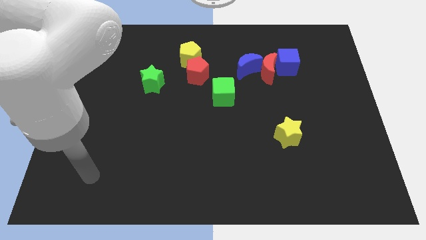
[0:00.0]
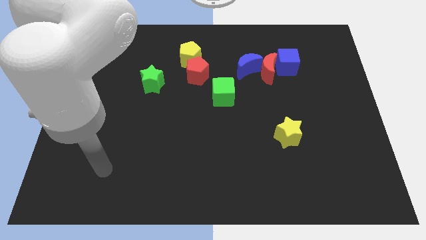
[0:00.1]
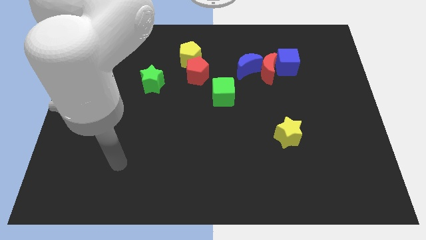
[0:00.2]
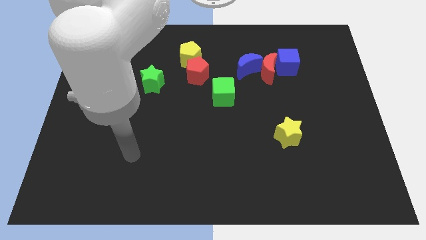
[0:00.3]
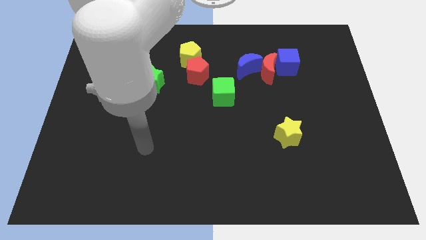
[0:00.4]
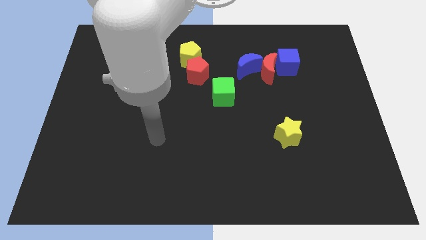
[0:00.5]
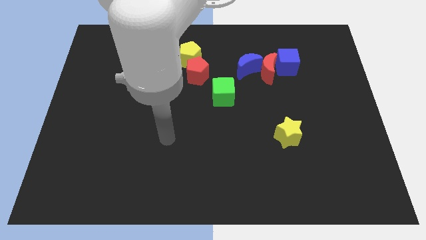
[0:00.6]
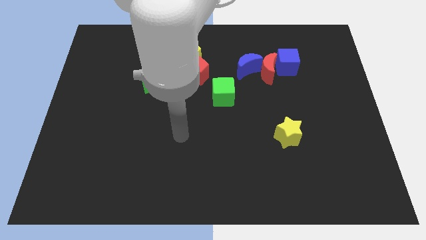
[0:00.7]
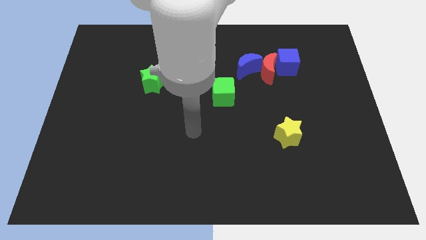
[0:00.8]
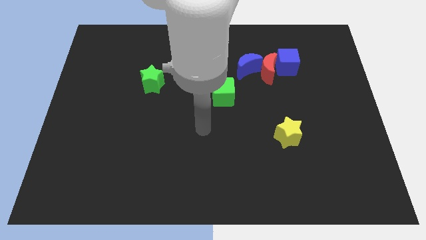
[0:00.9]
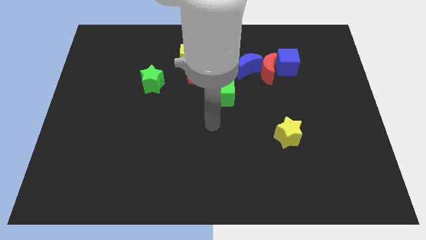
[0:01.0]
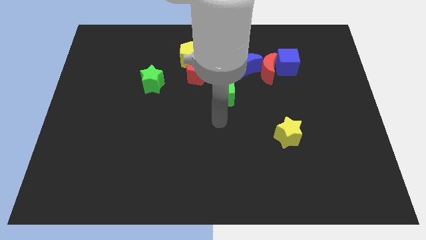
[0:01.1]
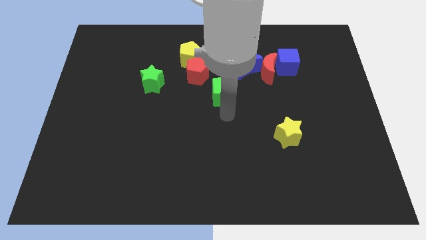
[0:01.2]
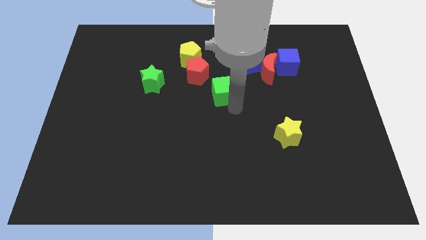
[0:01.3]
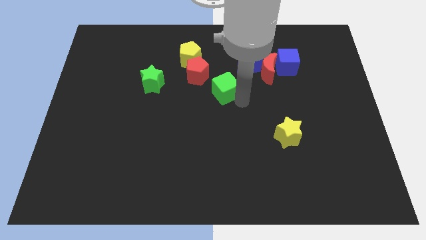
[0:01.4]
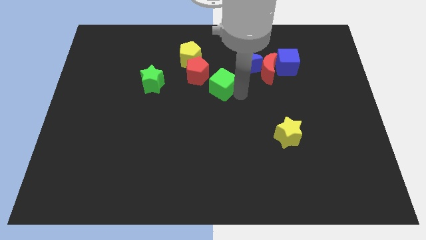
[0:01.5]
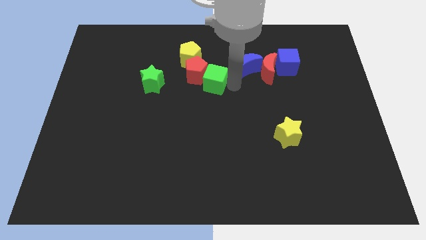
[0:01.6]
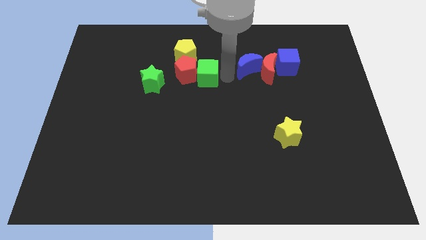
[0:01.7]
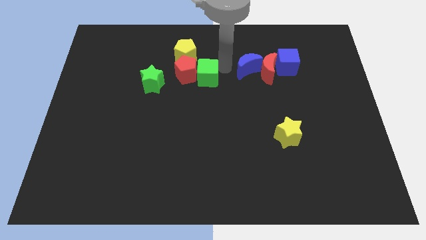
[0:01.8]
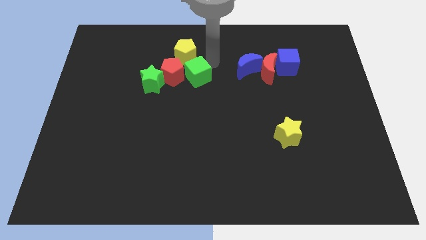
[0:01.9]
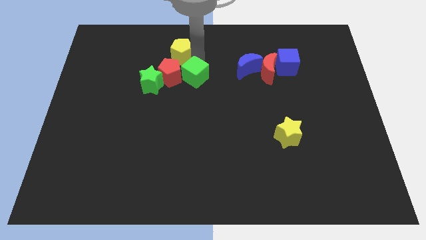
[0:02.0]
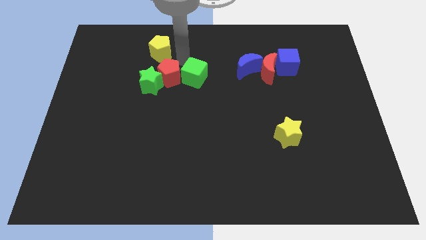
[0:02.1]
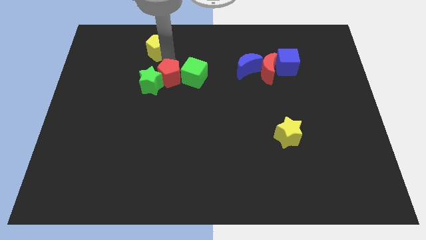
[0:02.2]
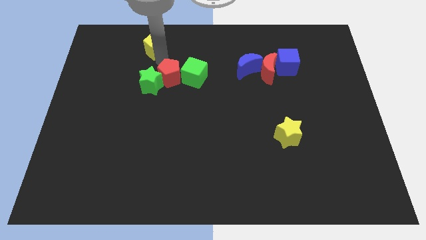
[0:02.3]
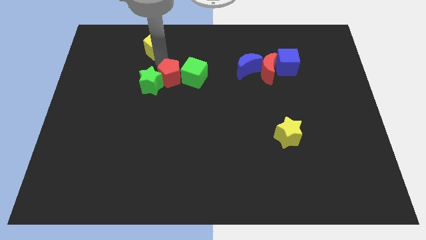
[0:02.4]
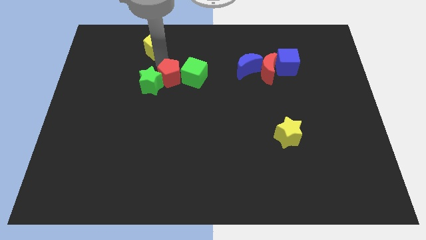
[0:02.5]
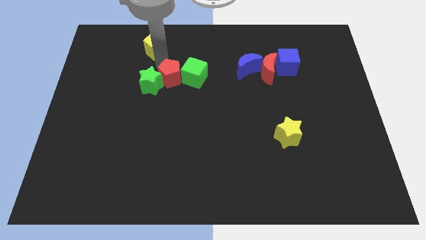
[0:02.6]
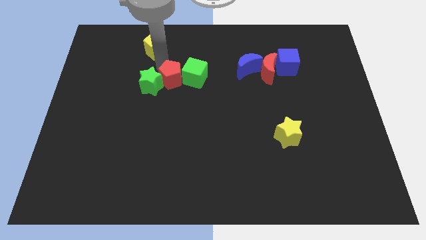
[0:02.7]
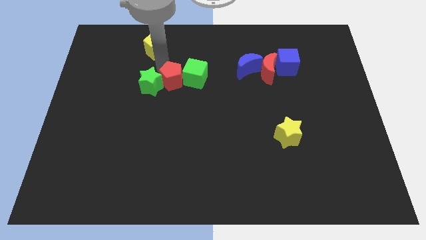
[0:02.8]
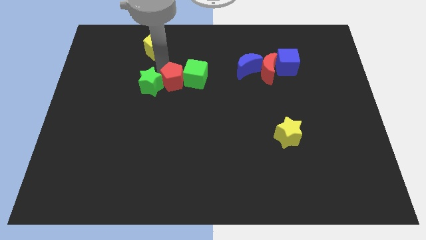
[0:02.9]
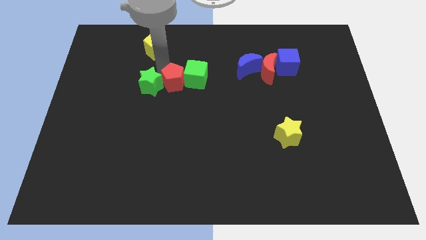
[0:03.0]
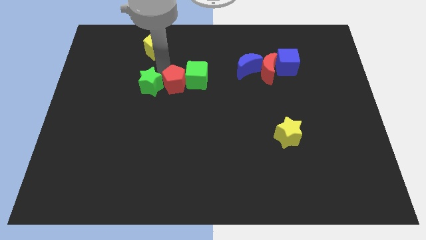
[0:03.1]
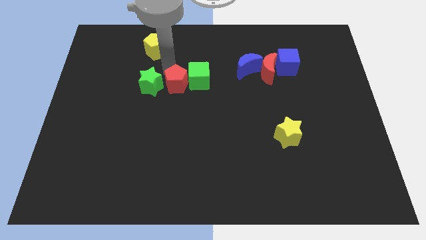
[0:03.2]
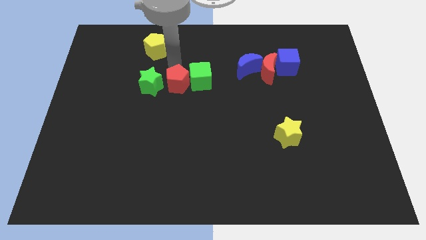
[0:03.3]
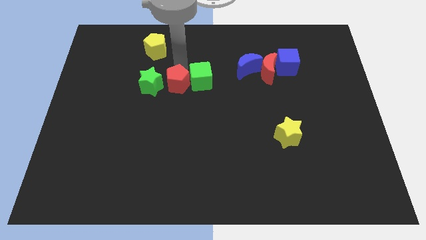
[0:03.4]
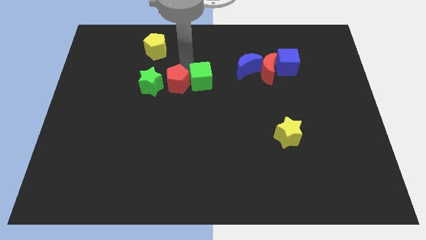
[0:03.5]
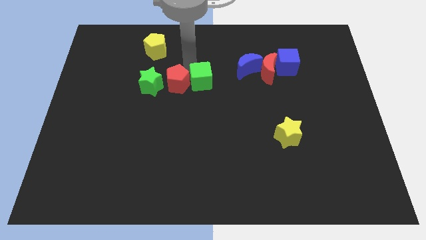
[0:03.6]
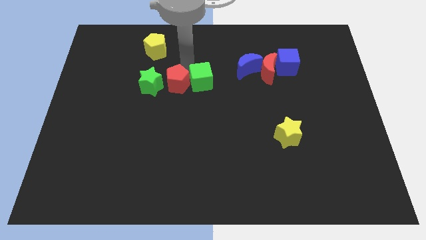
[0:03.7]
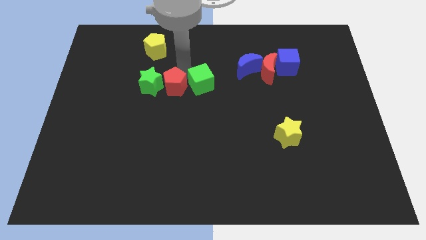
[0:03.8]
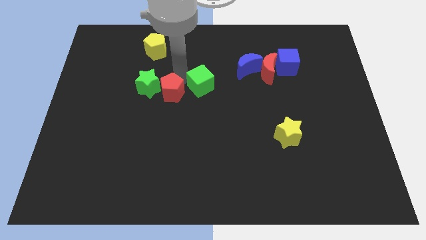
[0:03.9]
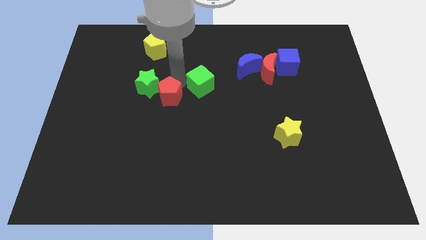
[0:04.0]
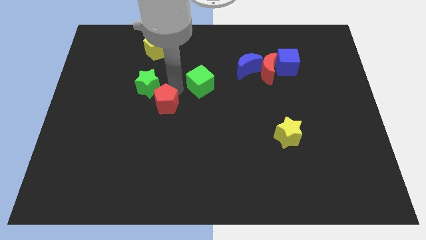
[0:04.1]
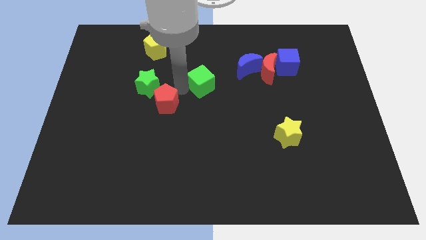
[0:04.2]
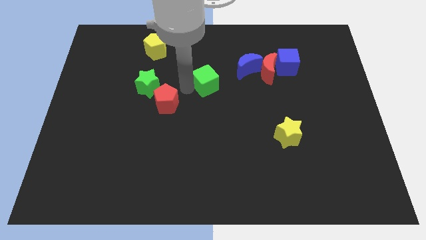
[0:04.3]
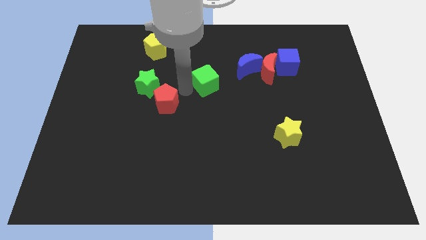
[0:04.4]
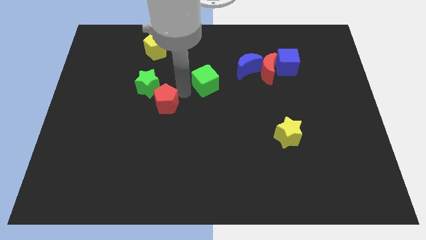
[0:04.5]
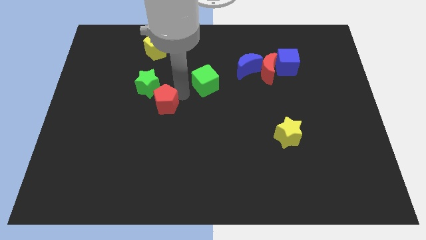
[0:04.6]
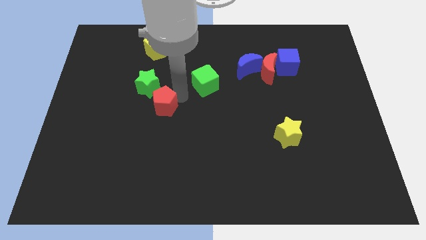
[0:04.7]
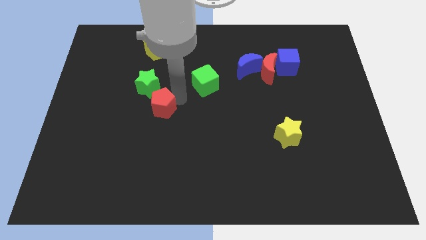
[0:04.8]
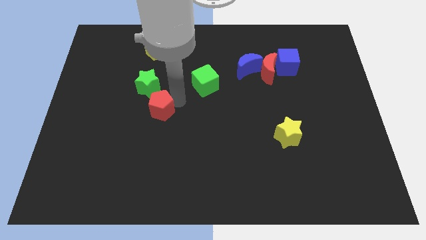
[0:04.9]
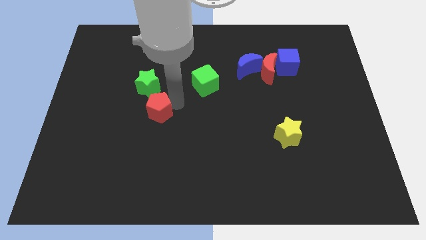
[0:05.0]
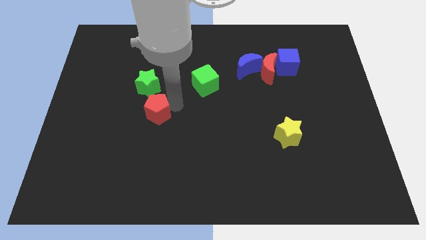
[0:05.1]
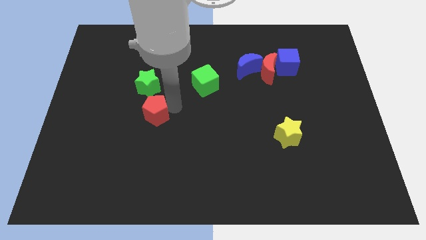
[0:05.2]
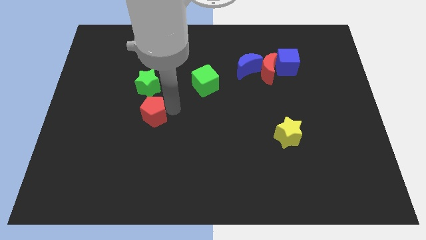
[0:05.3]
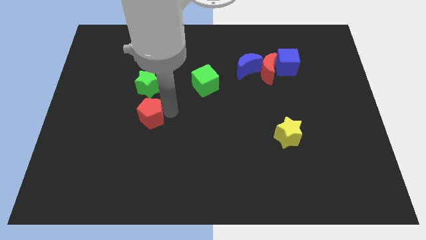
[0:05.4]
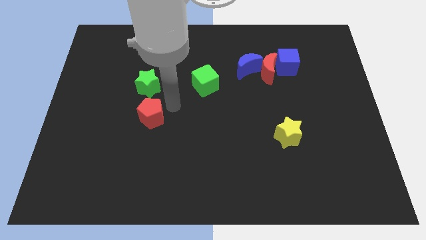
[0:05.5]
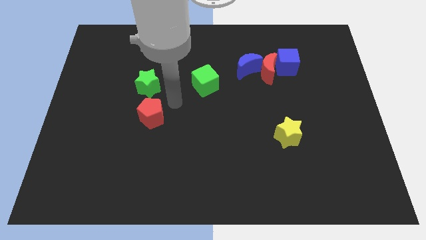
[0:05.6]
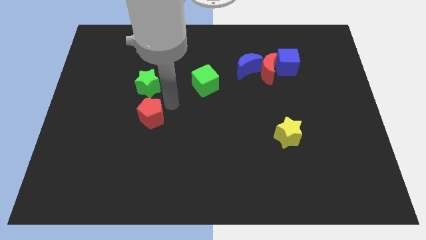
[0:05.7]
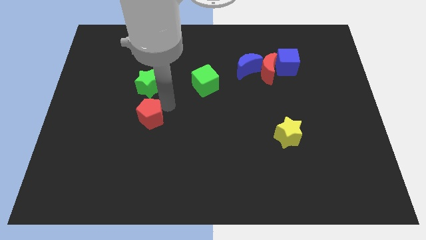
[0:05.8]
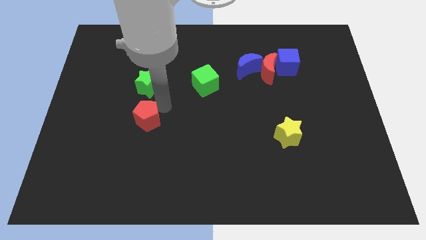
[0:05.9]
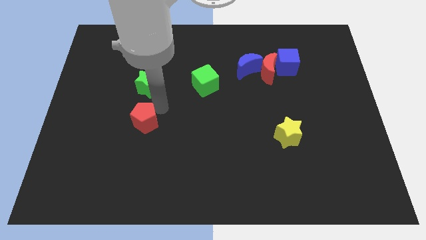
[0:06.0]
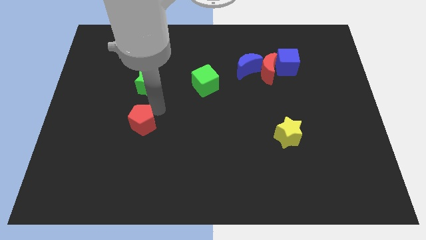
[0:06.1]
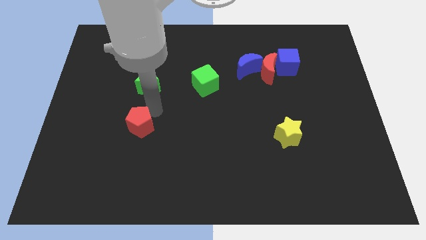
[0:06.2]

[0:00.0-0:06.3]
move the red pentagon diagonally downwards and left

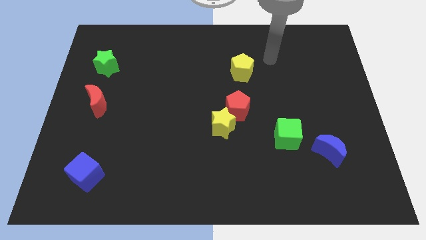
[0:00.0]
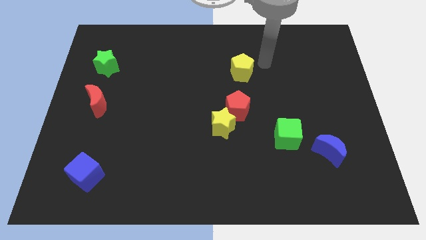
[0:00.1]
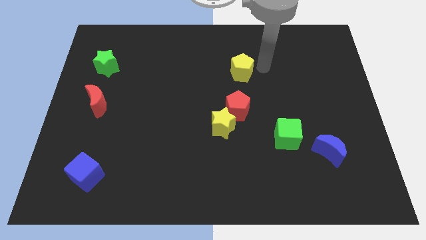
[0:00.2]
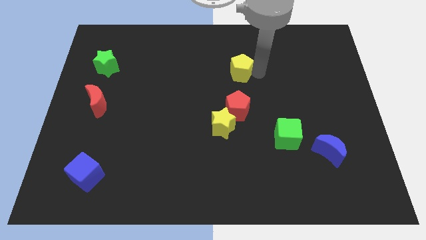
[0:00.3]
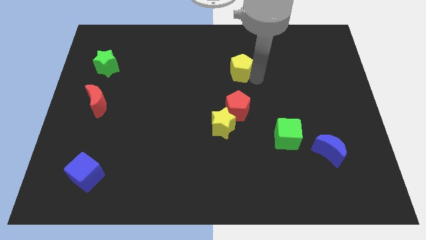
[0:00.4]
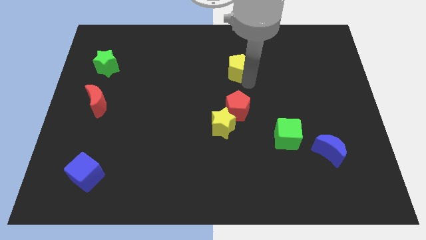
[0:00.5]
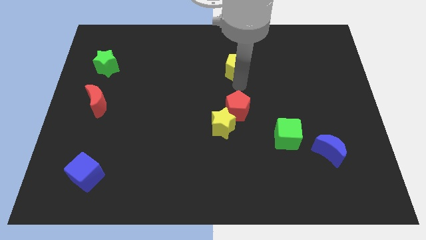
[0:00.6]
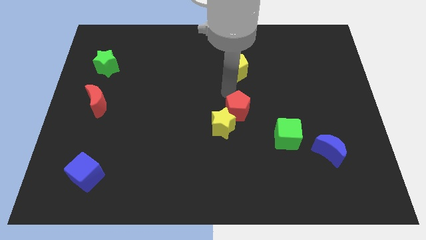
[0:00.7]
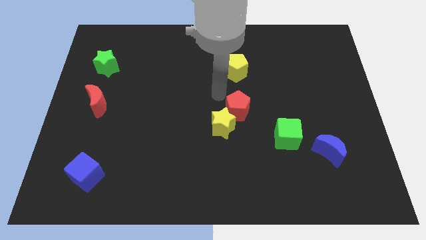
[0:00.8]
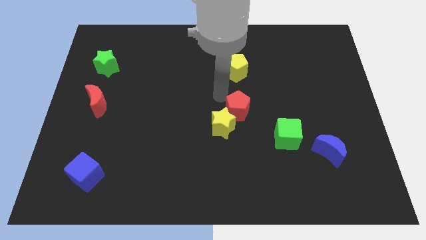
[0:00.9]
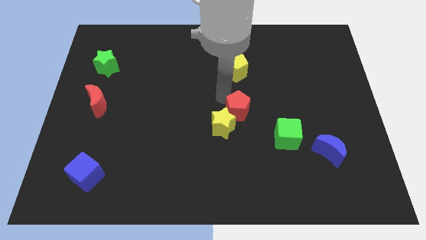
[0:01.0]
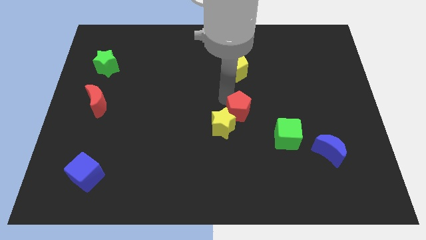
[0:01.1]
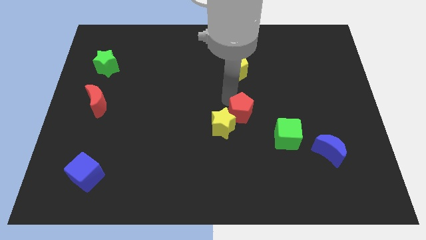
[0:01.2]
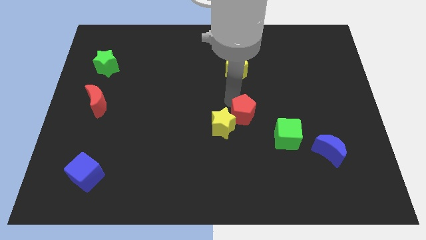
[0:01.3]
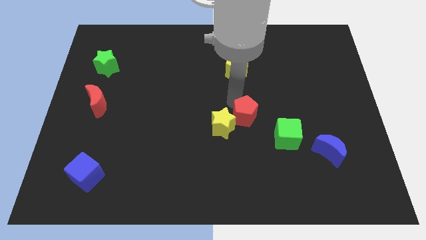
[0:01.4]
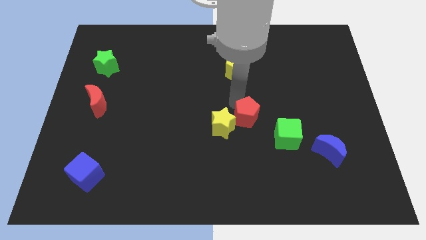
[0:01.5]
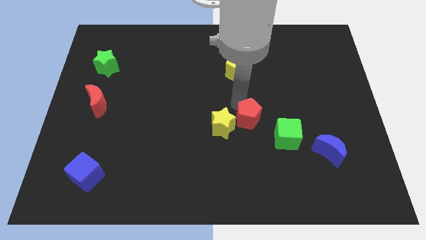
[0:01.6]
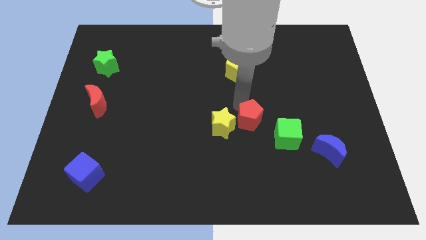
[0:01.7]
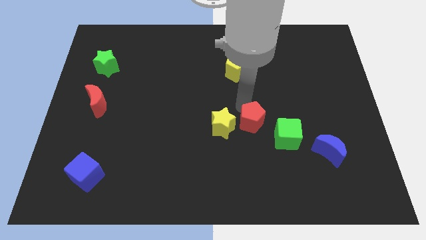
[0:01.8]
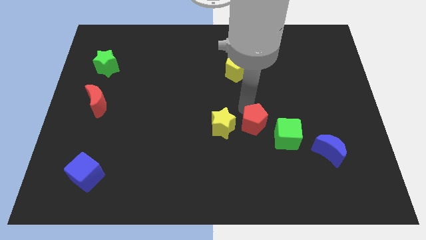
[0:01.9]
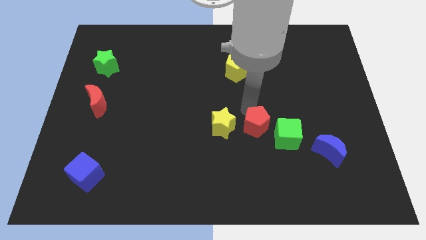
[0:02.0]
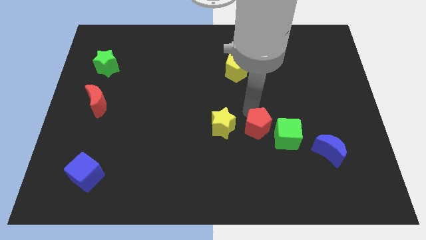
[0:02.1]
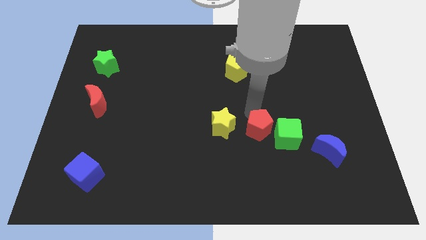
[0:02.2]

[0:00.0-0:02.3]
push the red pentagon a little down and then to the right
